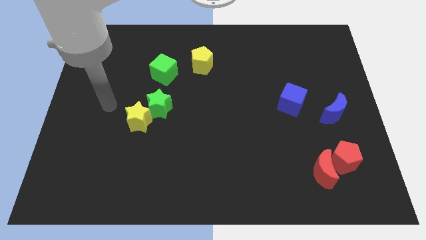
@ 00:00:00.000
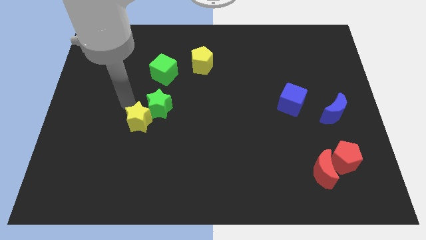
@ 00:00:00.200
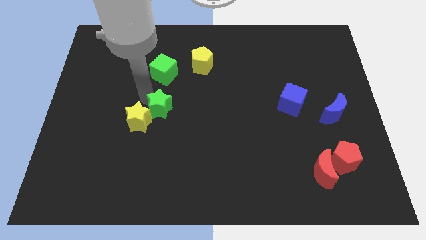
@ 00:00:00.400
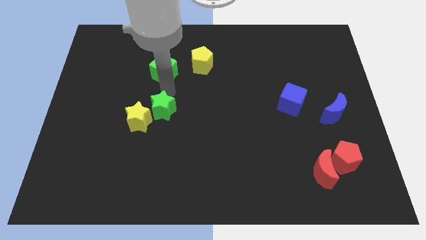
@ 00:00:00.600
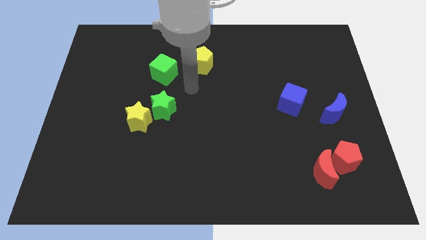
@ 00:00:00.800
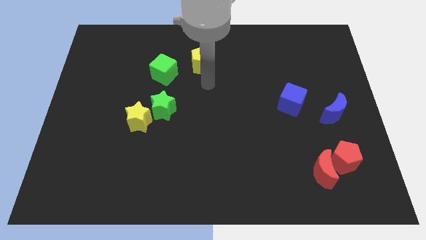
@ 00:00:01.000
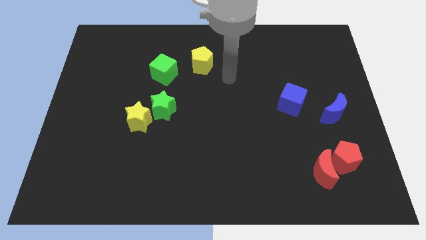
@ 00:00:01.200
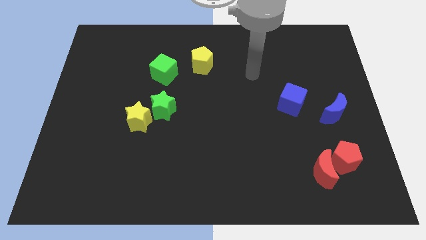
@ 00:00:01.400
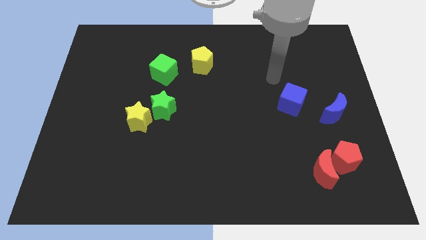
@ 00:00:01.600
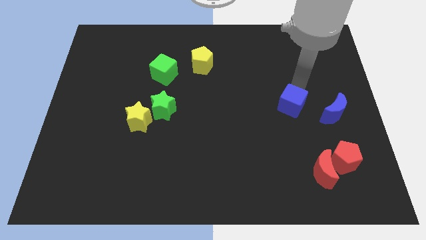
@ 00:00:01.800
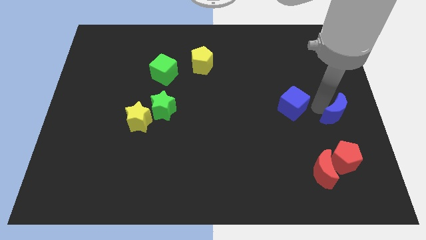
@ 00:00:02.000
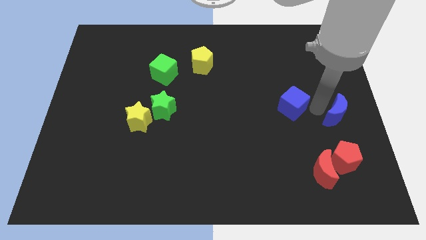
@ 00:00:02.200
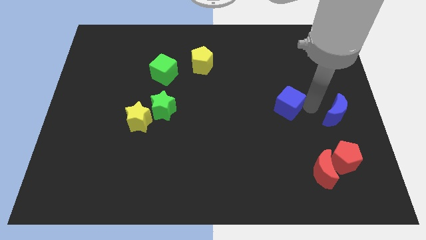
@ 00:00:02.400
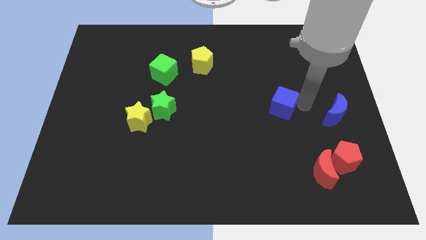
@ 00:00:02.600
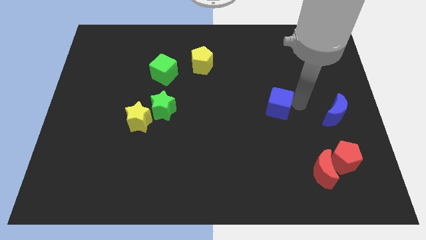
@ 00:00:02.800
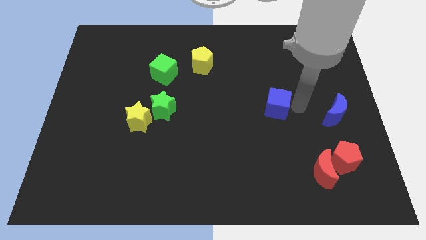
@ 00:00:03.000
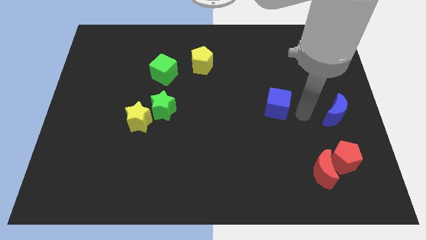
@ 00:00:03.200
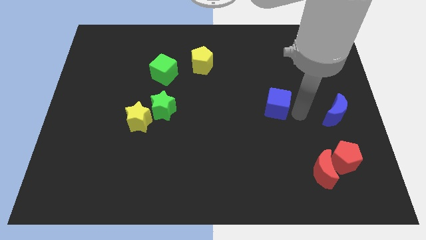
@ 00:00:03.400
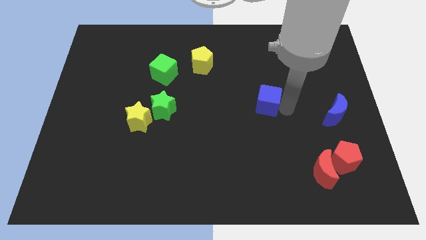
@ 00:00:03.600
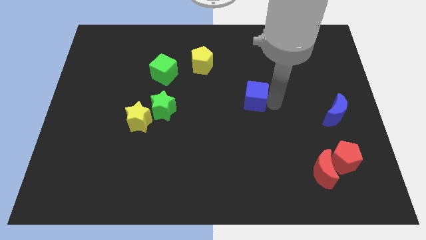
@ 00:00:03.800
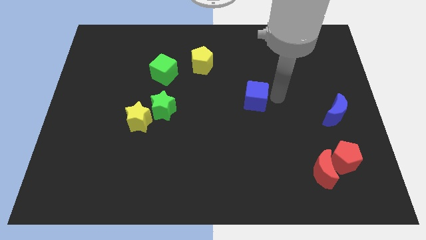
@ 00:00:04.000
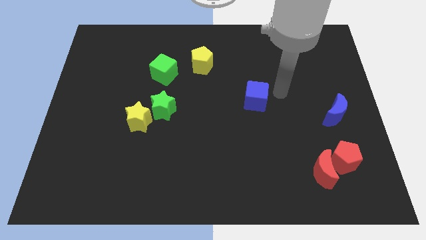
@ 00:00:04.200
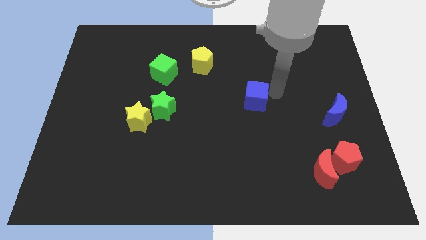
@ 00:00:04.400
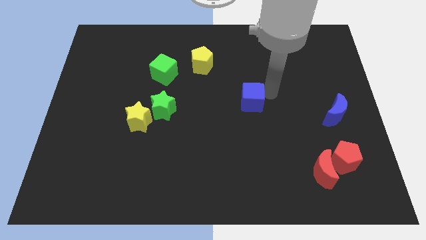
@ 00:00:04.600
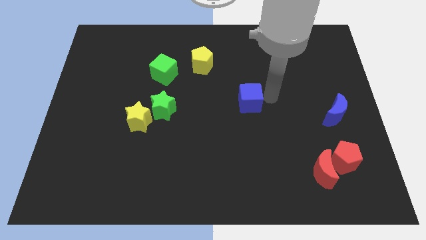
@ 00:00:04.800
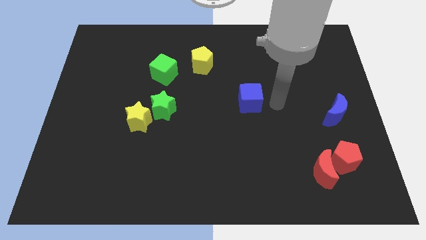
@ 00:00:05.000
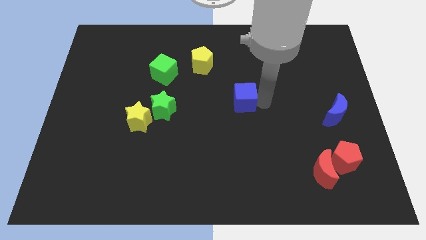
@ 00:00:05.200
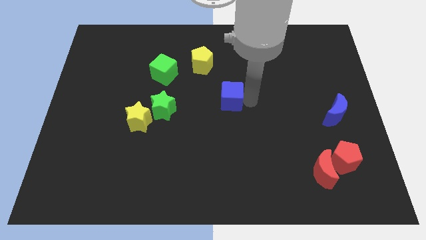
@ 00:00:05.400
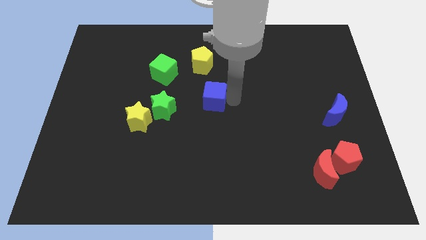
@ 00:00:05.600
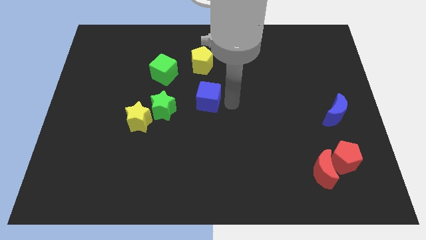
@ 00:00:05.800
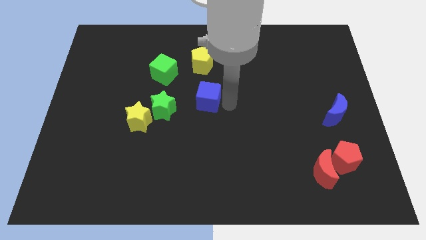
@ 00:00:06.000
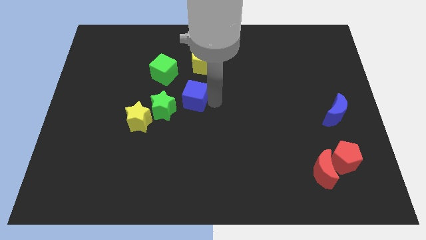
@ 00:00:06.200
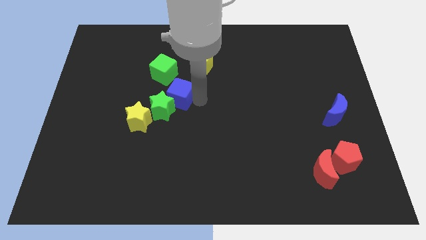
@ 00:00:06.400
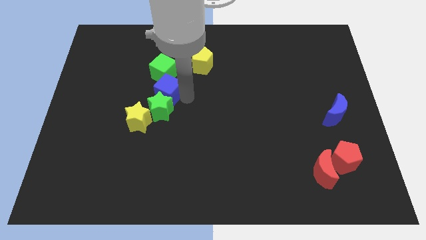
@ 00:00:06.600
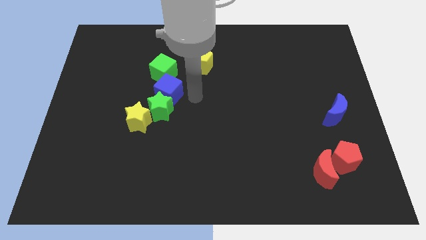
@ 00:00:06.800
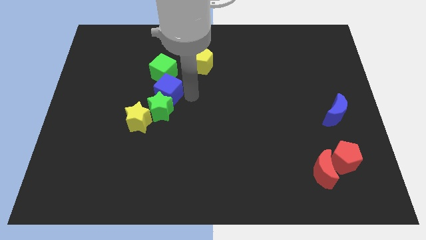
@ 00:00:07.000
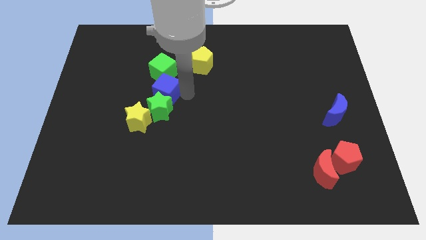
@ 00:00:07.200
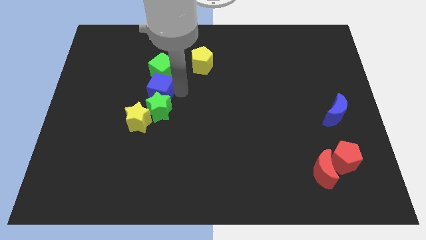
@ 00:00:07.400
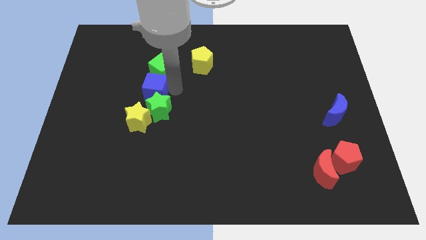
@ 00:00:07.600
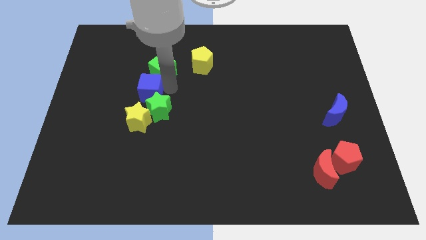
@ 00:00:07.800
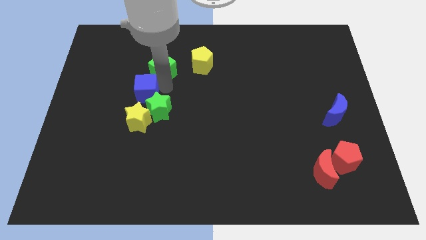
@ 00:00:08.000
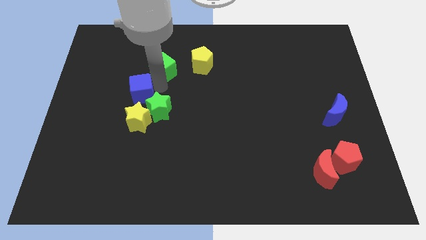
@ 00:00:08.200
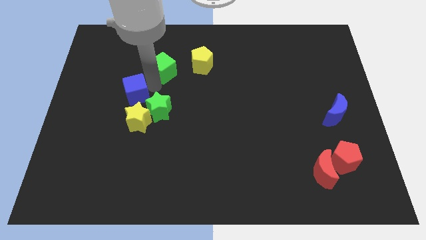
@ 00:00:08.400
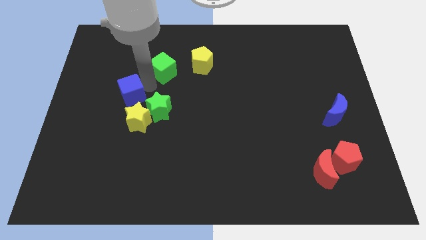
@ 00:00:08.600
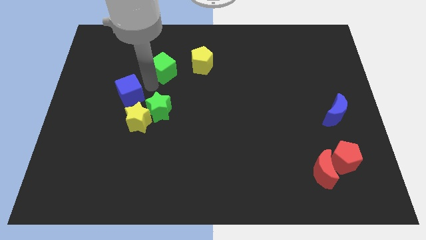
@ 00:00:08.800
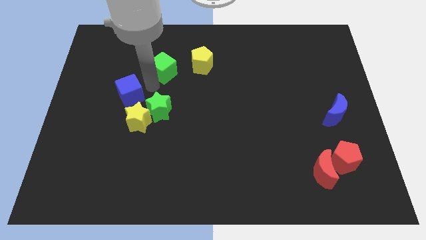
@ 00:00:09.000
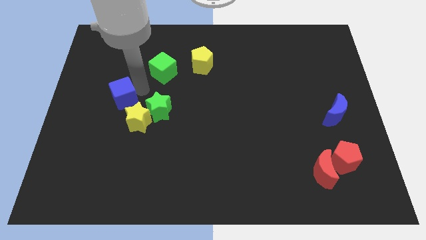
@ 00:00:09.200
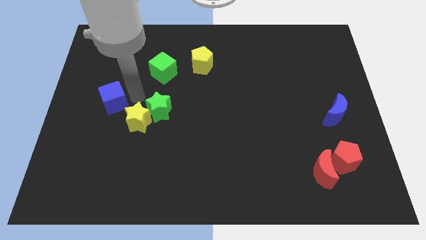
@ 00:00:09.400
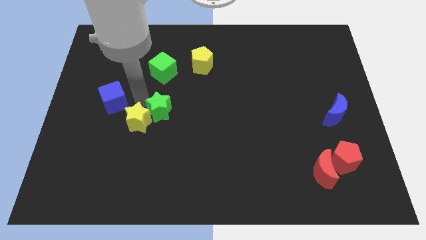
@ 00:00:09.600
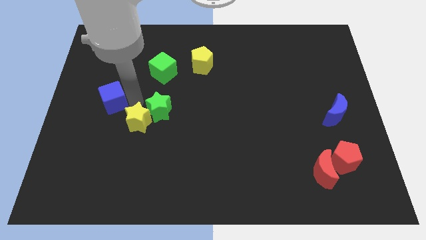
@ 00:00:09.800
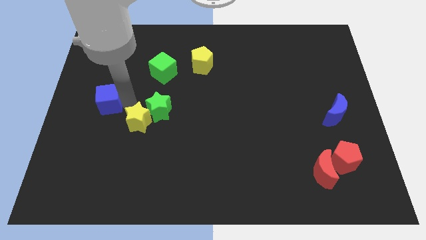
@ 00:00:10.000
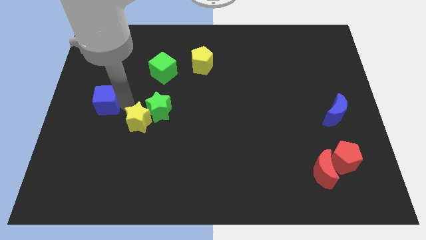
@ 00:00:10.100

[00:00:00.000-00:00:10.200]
put the blue cube to the center left

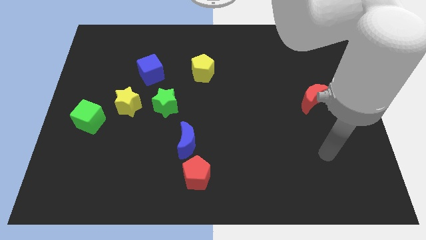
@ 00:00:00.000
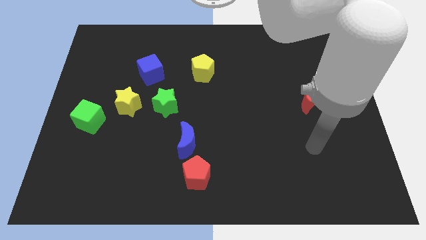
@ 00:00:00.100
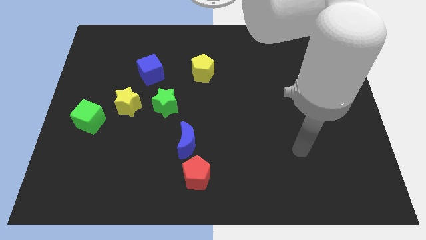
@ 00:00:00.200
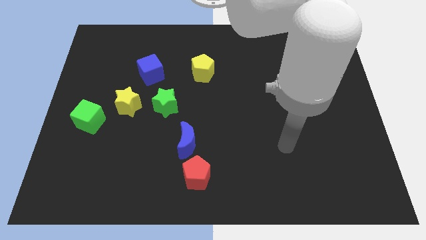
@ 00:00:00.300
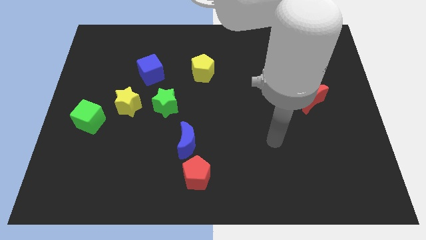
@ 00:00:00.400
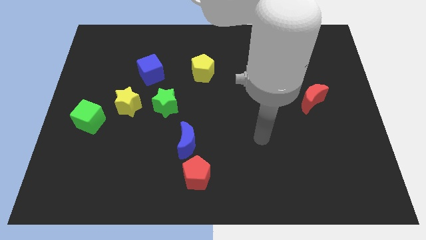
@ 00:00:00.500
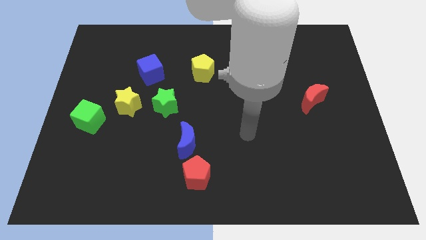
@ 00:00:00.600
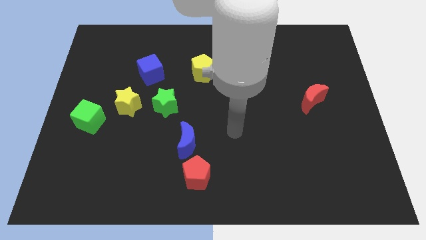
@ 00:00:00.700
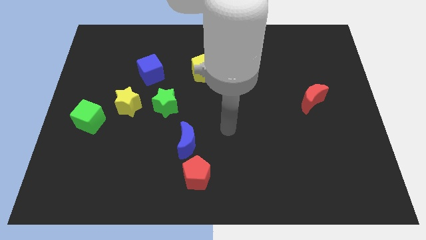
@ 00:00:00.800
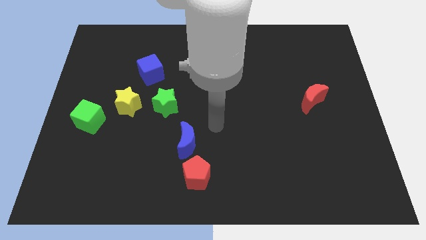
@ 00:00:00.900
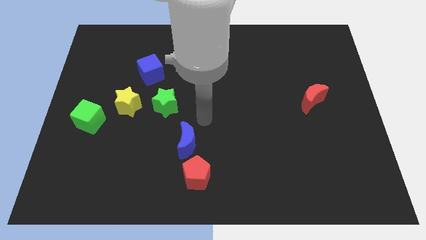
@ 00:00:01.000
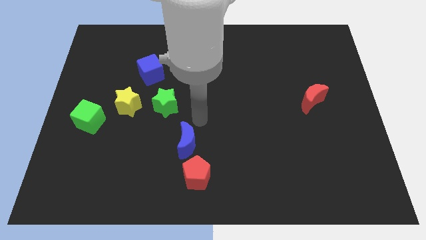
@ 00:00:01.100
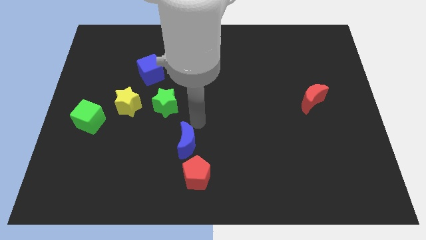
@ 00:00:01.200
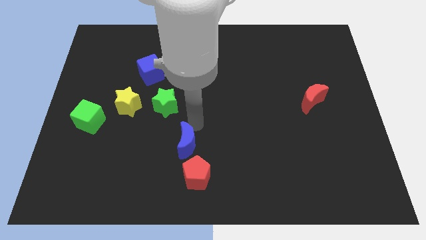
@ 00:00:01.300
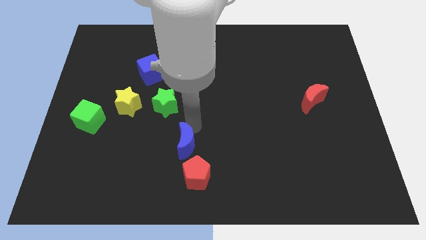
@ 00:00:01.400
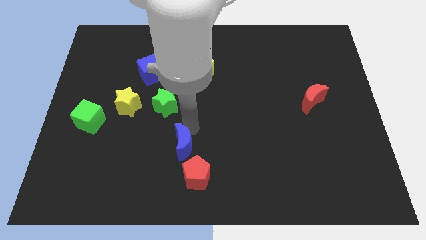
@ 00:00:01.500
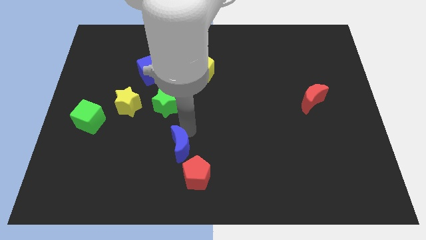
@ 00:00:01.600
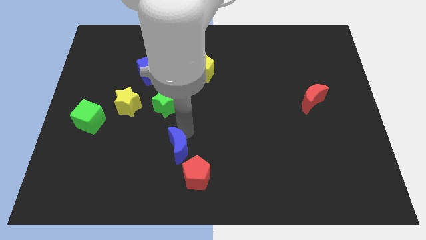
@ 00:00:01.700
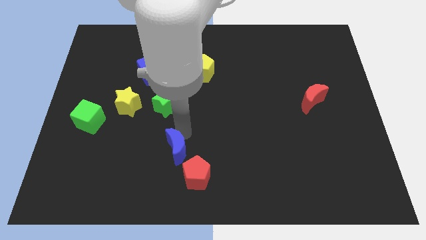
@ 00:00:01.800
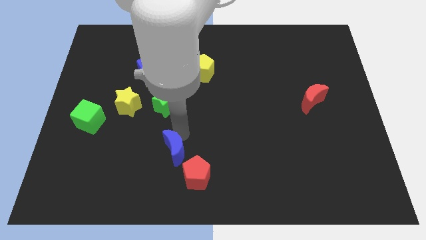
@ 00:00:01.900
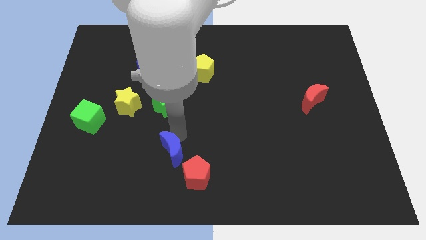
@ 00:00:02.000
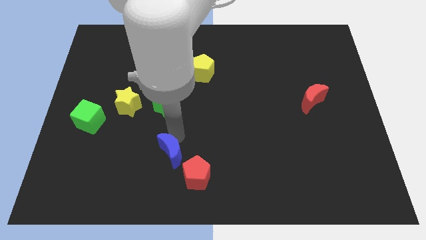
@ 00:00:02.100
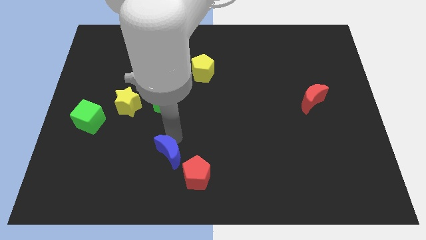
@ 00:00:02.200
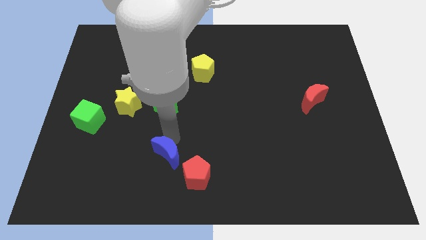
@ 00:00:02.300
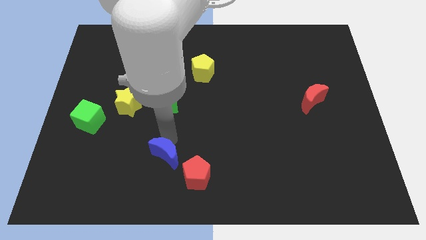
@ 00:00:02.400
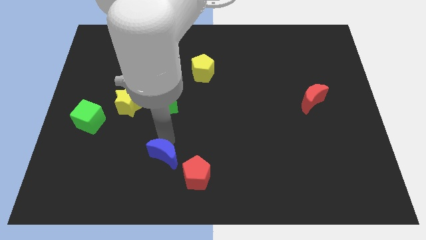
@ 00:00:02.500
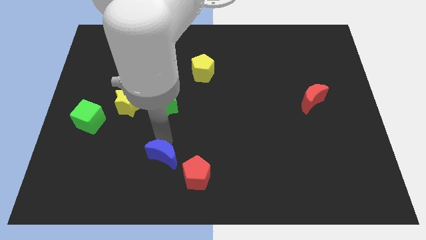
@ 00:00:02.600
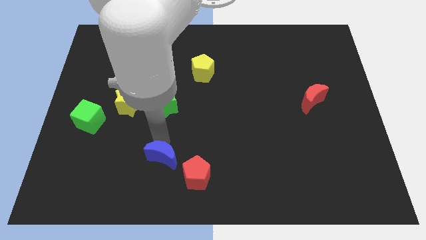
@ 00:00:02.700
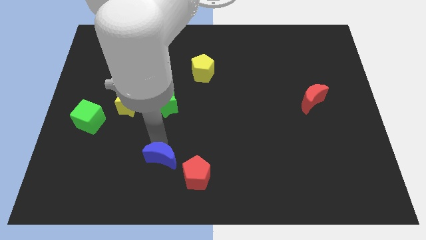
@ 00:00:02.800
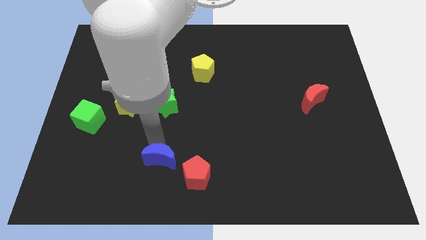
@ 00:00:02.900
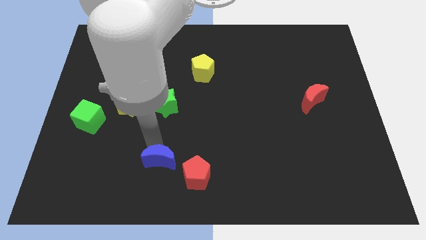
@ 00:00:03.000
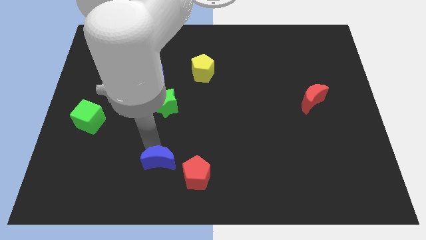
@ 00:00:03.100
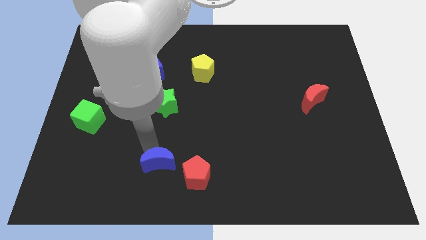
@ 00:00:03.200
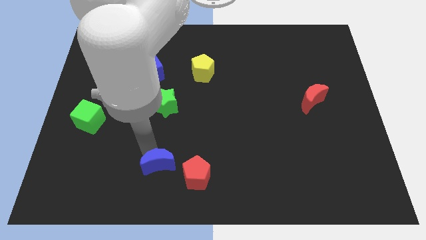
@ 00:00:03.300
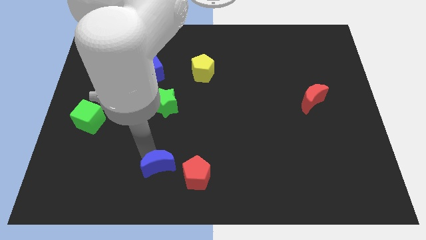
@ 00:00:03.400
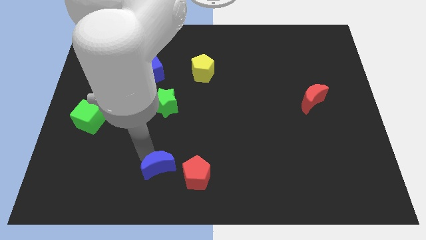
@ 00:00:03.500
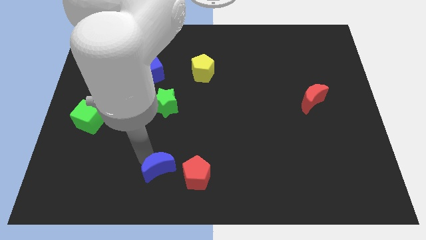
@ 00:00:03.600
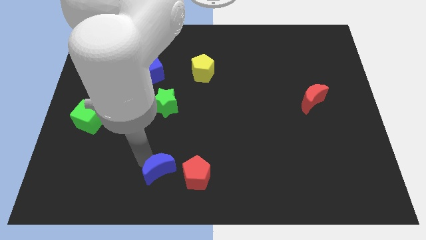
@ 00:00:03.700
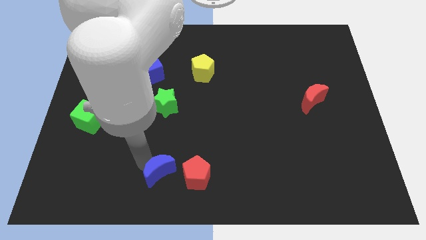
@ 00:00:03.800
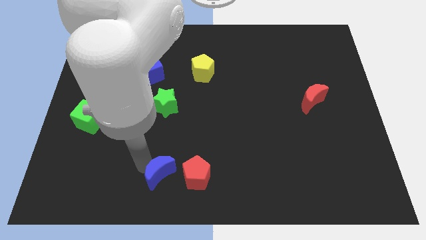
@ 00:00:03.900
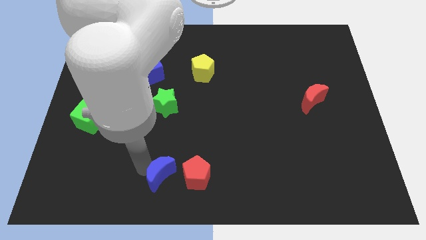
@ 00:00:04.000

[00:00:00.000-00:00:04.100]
move the blue moon to the bottom side
